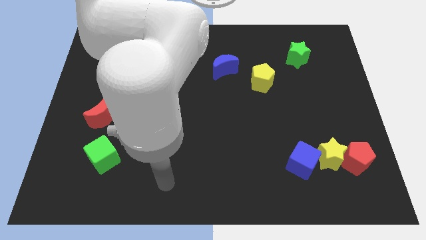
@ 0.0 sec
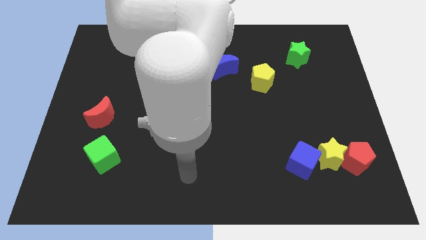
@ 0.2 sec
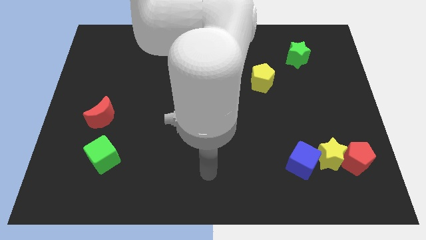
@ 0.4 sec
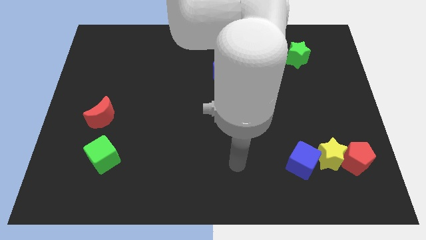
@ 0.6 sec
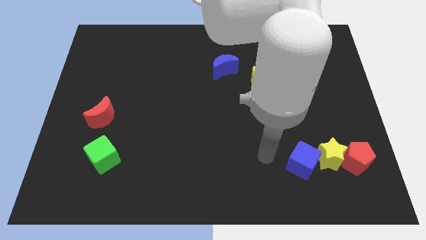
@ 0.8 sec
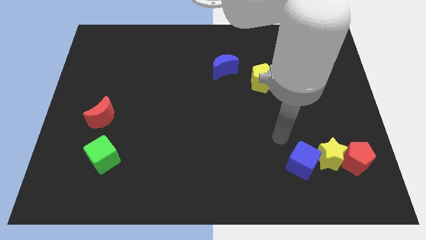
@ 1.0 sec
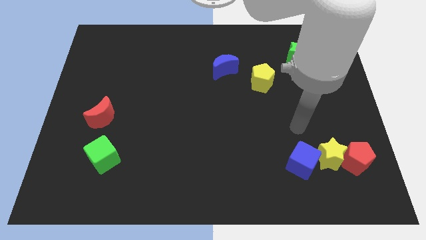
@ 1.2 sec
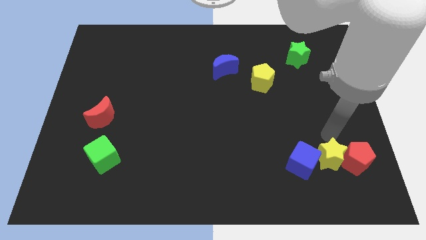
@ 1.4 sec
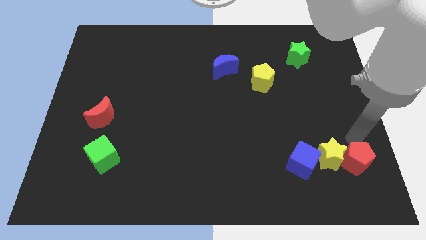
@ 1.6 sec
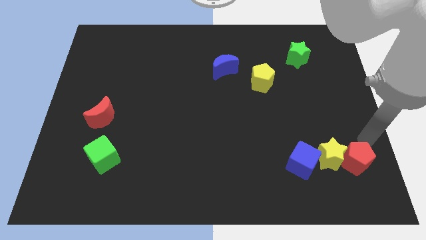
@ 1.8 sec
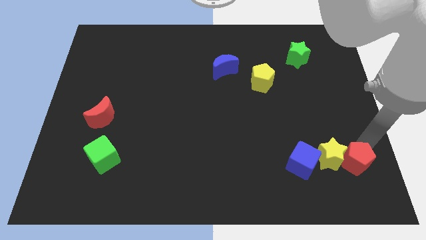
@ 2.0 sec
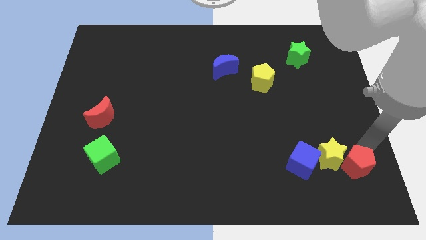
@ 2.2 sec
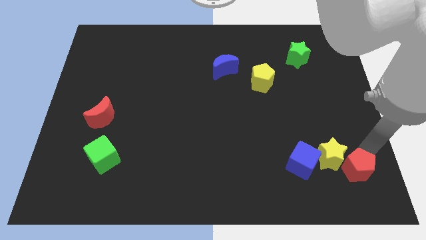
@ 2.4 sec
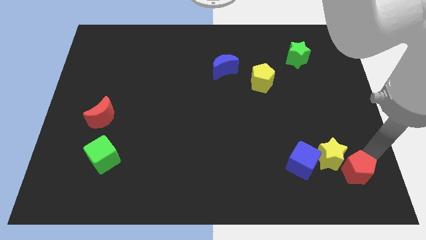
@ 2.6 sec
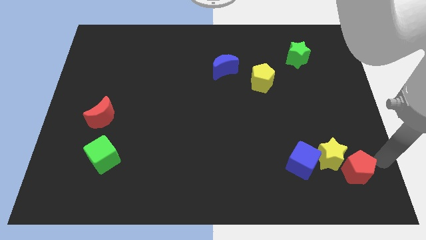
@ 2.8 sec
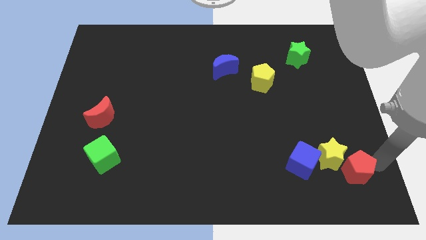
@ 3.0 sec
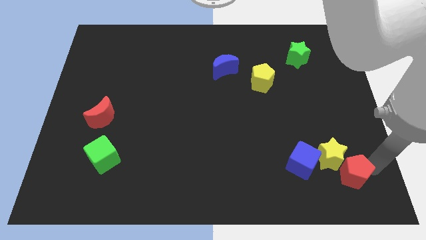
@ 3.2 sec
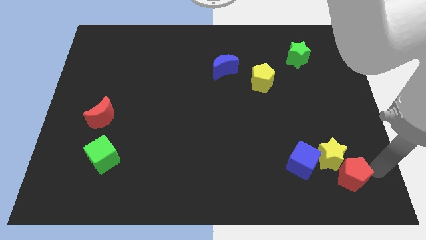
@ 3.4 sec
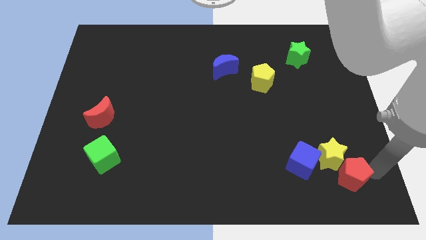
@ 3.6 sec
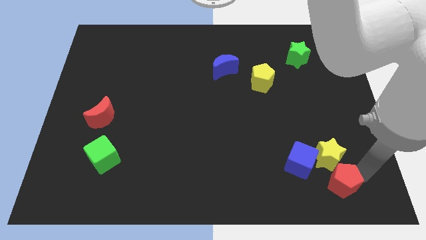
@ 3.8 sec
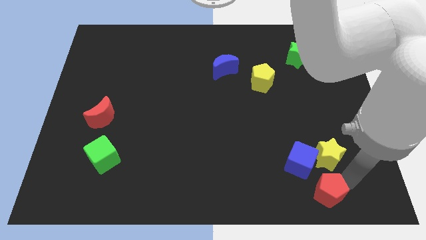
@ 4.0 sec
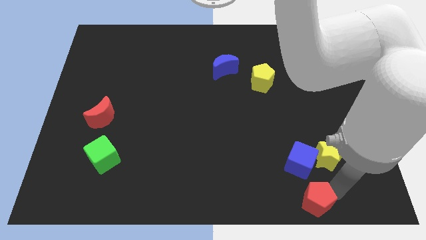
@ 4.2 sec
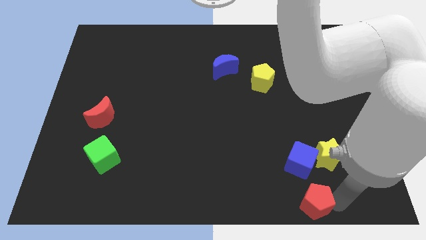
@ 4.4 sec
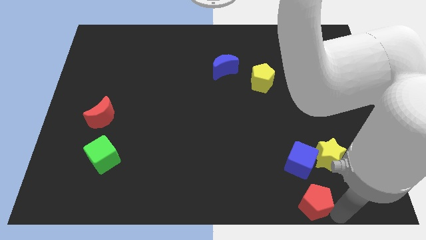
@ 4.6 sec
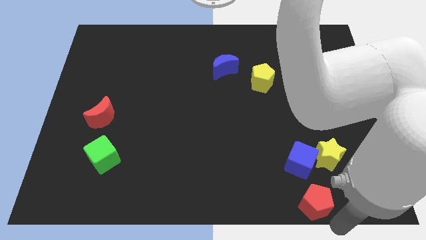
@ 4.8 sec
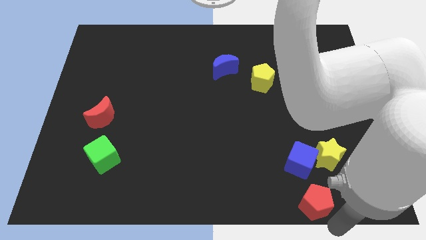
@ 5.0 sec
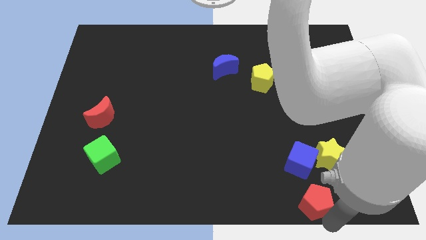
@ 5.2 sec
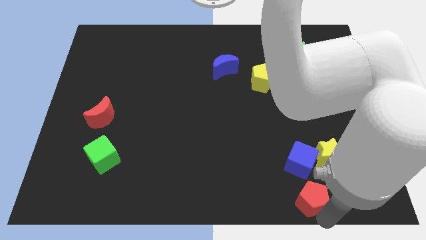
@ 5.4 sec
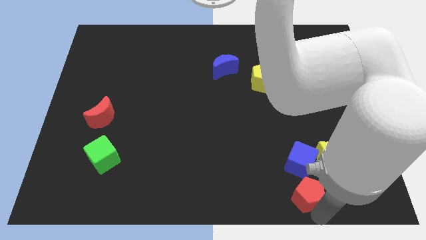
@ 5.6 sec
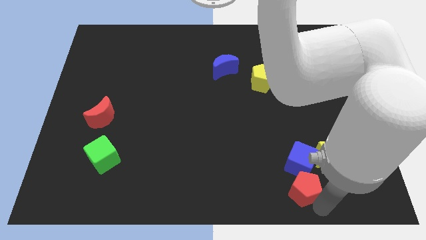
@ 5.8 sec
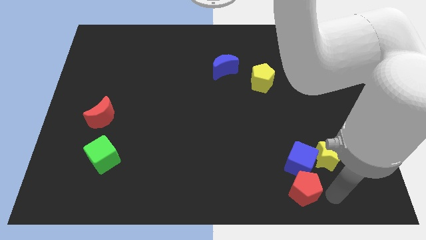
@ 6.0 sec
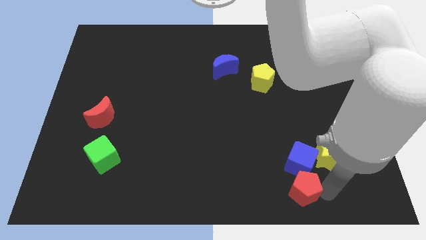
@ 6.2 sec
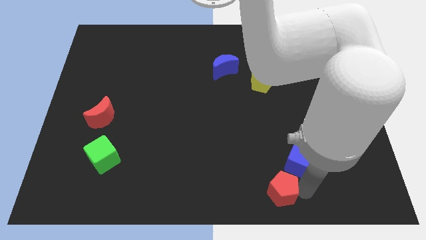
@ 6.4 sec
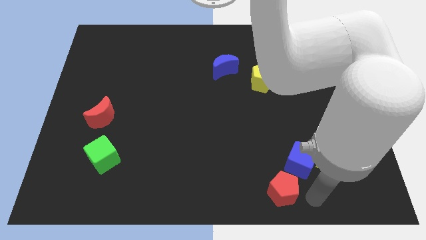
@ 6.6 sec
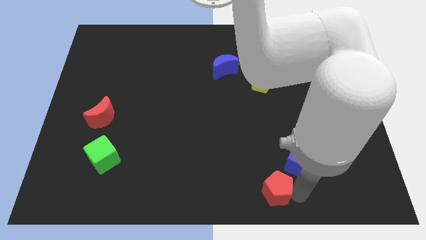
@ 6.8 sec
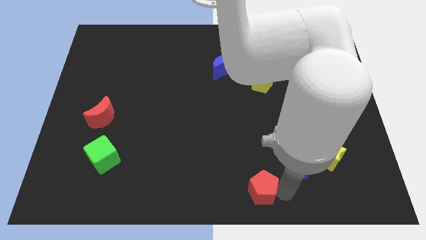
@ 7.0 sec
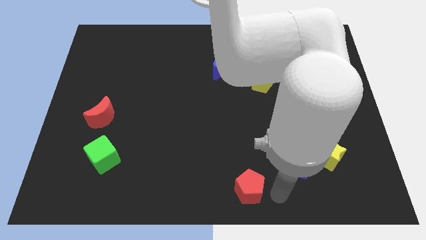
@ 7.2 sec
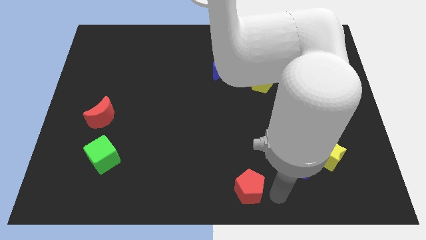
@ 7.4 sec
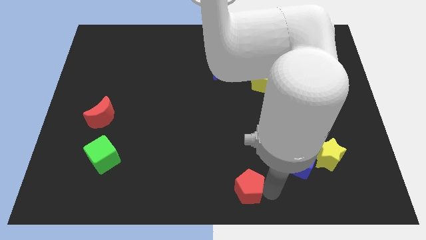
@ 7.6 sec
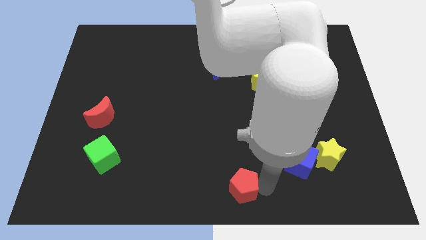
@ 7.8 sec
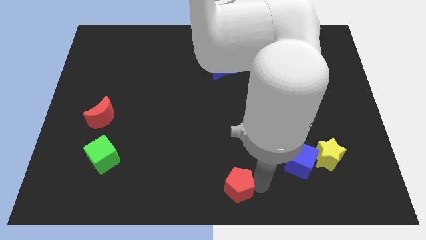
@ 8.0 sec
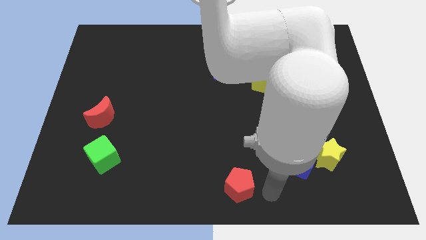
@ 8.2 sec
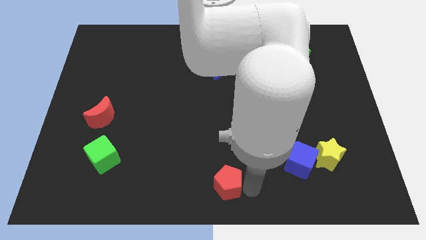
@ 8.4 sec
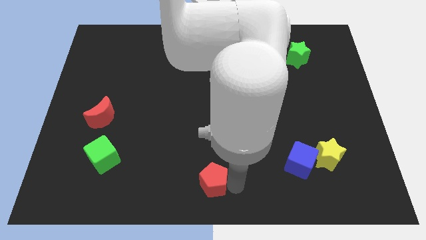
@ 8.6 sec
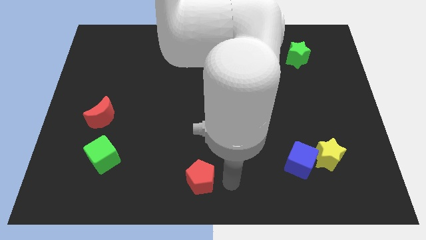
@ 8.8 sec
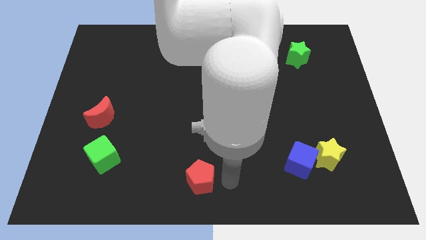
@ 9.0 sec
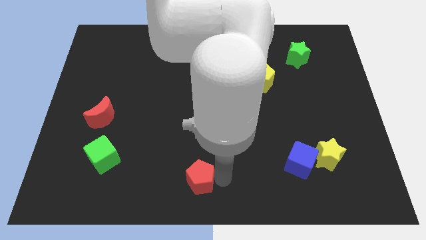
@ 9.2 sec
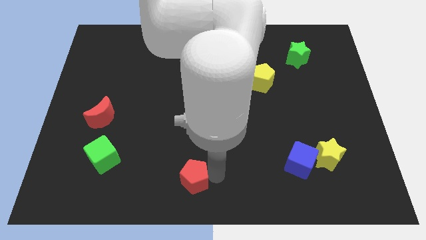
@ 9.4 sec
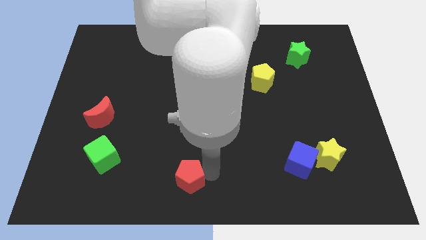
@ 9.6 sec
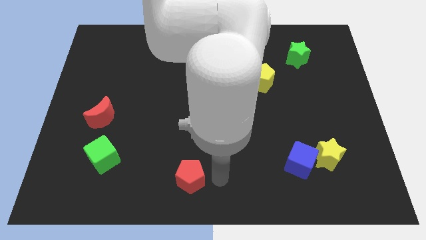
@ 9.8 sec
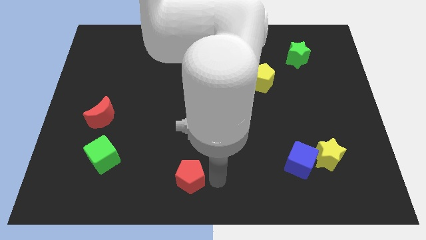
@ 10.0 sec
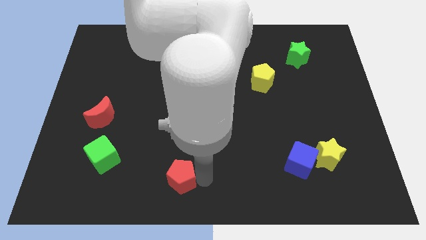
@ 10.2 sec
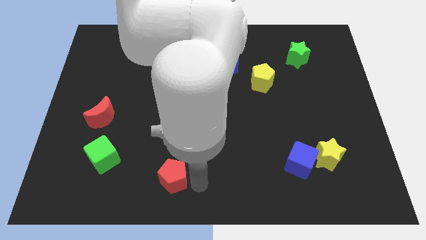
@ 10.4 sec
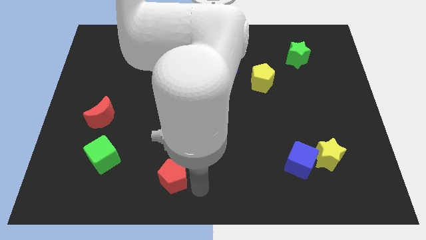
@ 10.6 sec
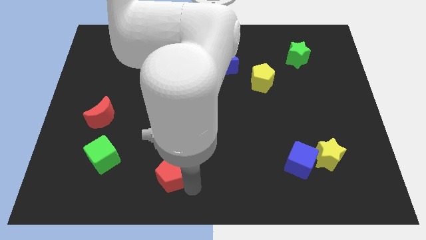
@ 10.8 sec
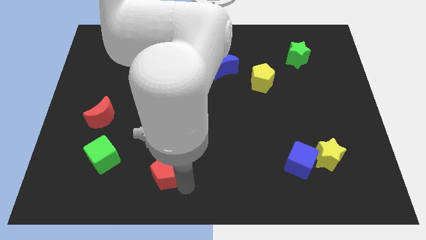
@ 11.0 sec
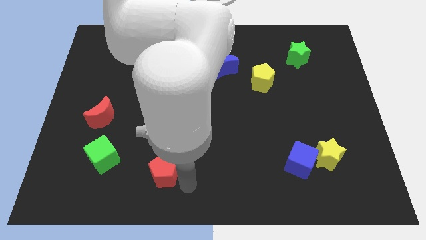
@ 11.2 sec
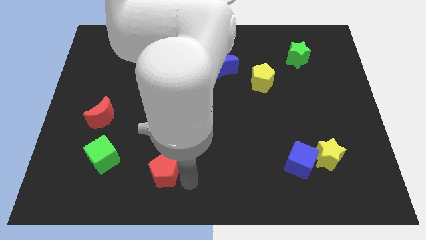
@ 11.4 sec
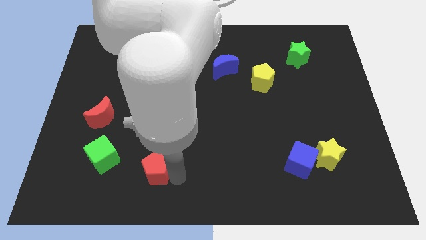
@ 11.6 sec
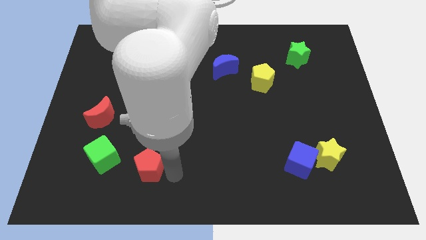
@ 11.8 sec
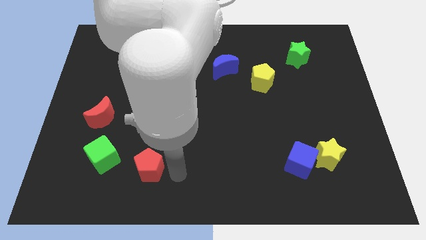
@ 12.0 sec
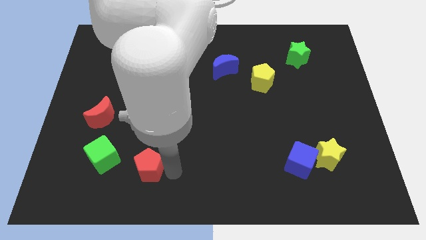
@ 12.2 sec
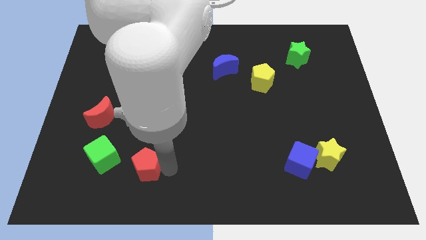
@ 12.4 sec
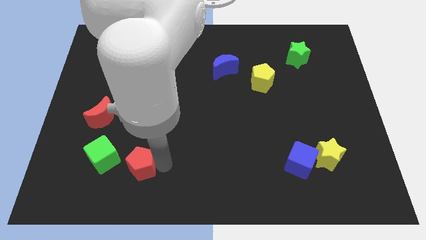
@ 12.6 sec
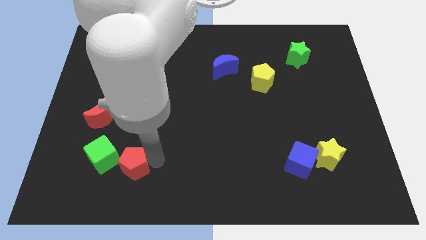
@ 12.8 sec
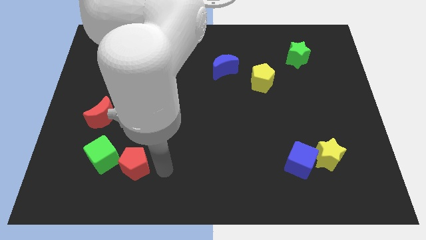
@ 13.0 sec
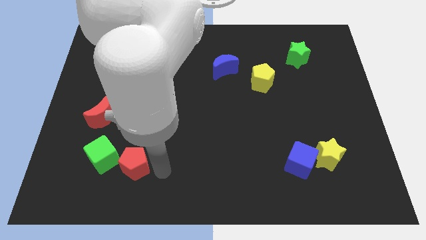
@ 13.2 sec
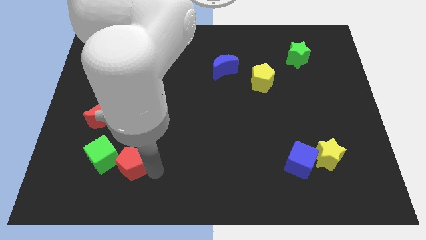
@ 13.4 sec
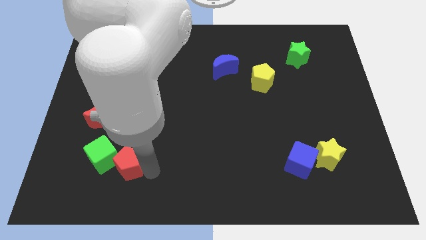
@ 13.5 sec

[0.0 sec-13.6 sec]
slide the red pentagon towards the green cube

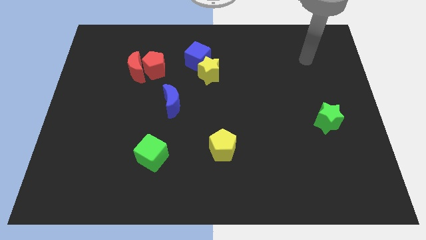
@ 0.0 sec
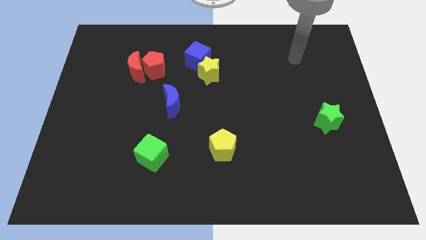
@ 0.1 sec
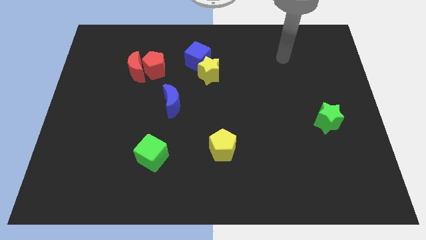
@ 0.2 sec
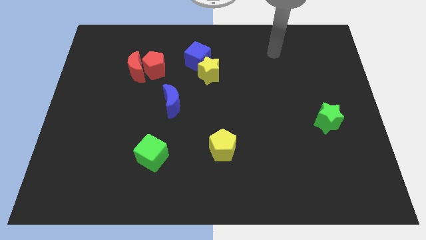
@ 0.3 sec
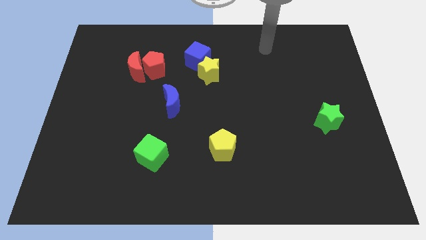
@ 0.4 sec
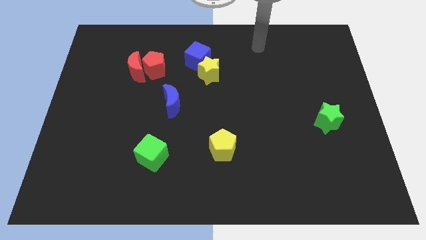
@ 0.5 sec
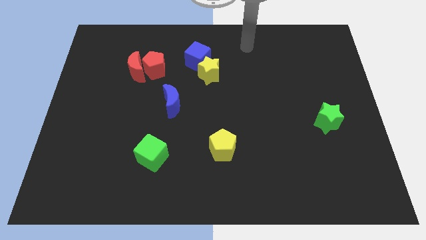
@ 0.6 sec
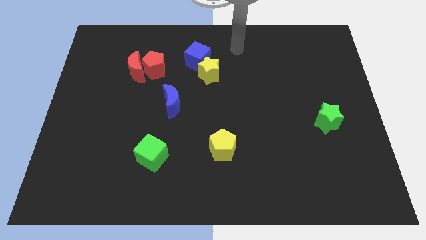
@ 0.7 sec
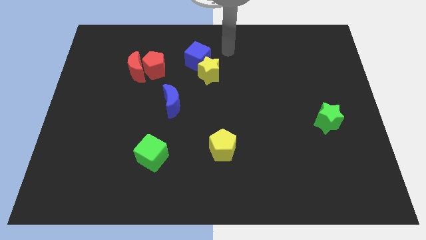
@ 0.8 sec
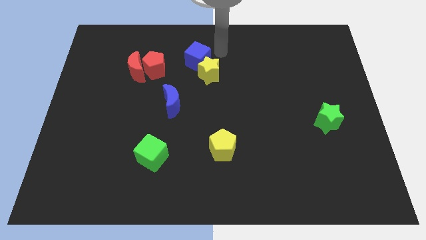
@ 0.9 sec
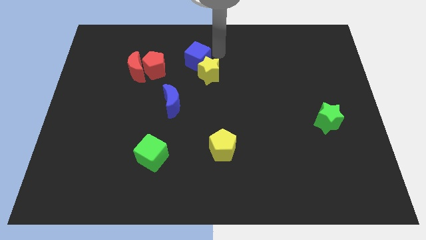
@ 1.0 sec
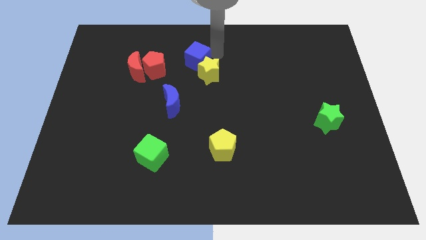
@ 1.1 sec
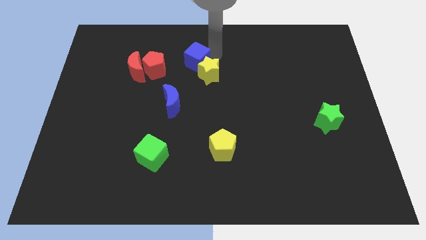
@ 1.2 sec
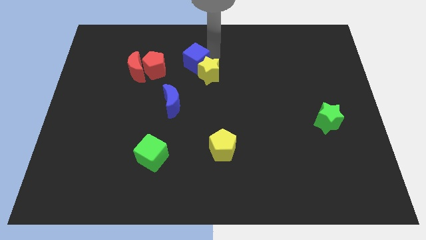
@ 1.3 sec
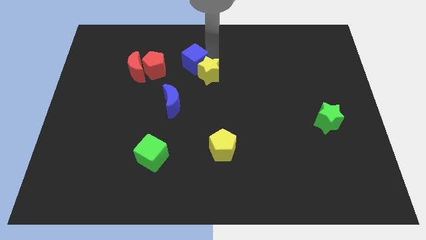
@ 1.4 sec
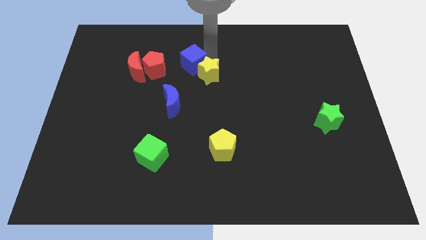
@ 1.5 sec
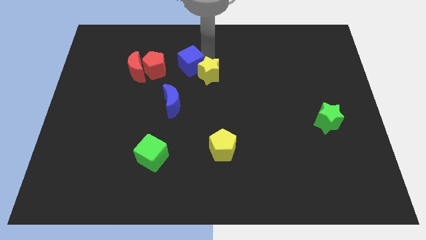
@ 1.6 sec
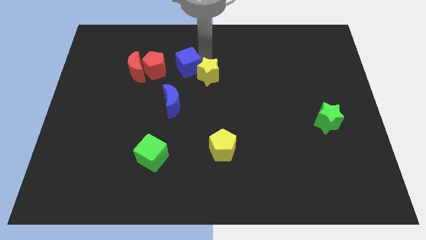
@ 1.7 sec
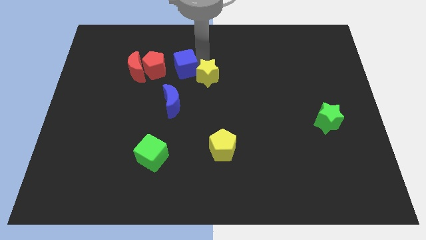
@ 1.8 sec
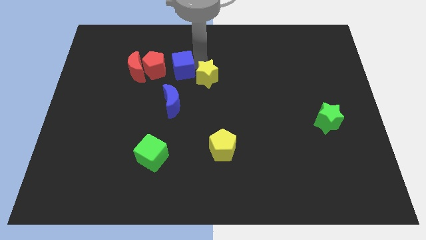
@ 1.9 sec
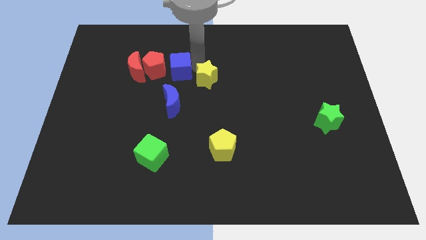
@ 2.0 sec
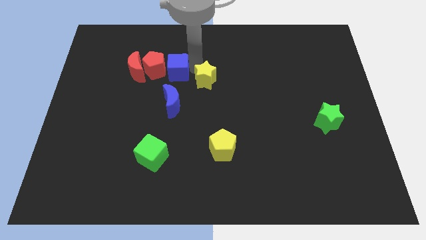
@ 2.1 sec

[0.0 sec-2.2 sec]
put the blue cube to the red pentagon
